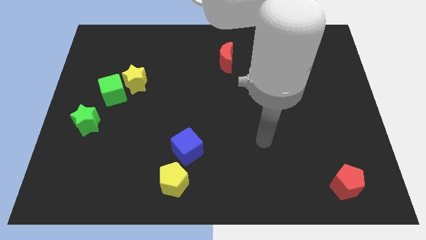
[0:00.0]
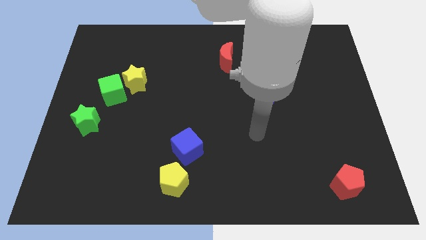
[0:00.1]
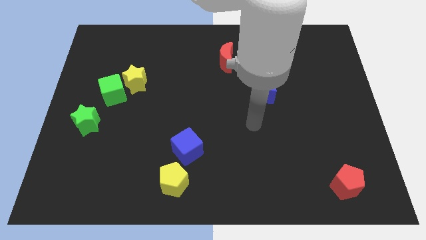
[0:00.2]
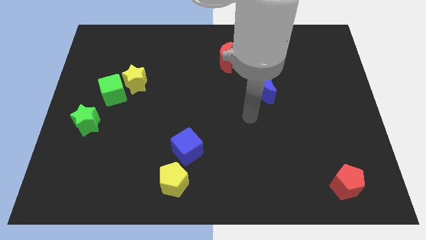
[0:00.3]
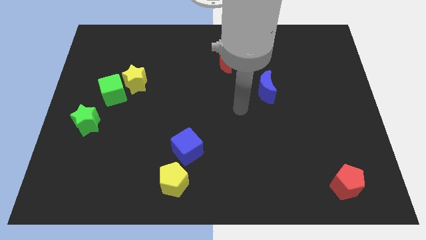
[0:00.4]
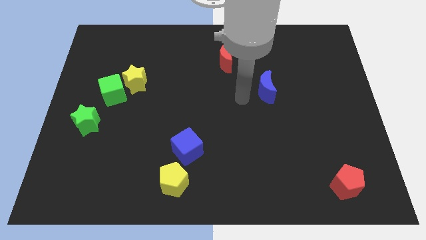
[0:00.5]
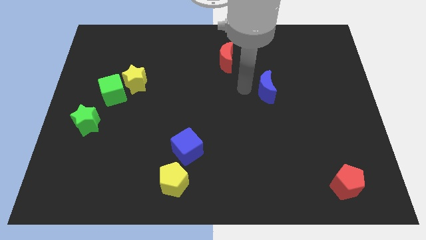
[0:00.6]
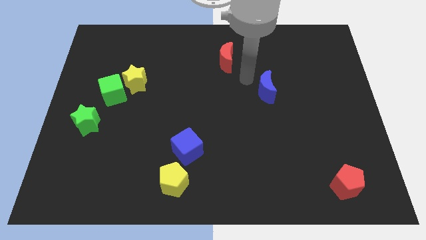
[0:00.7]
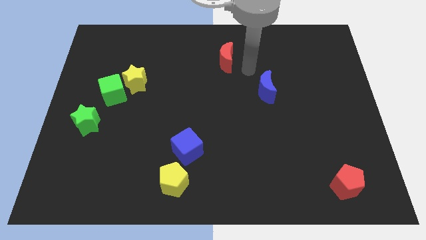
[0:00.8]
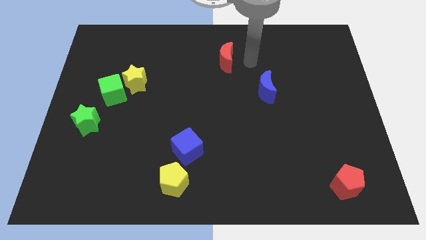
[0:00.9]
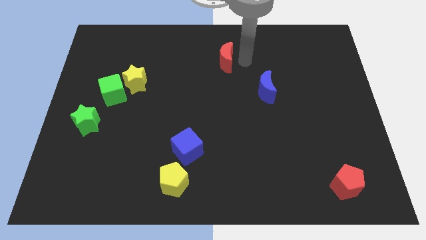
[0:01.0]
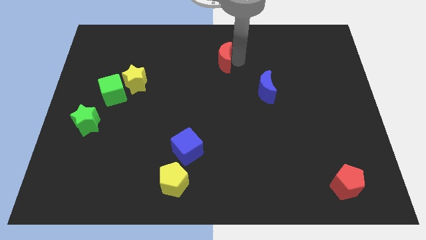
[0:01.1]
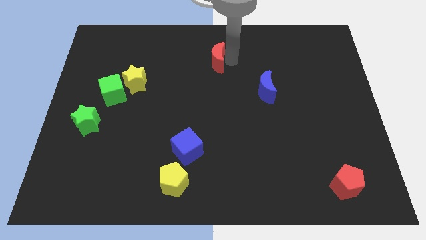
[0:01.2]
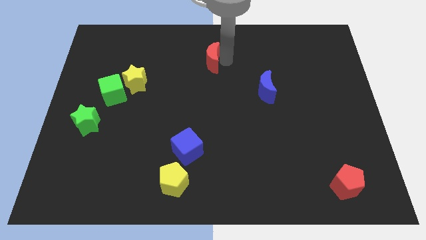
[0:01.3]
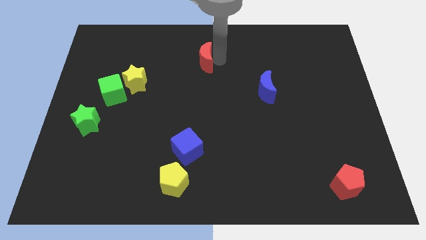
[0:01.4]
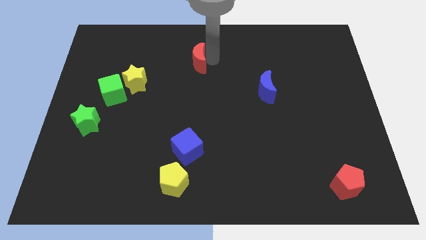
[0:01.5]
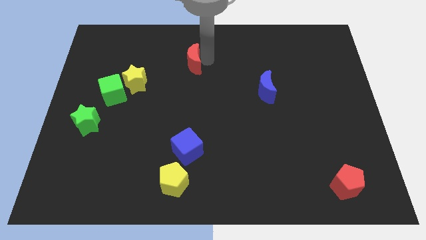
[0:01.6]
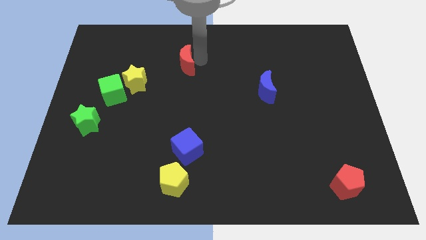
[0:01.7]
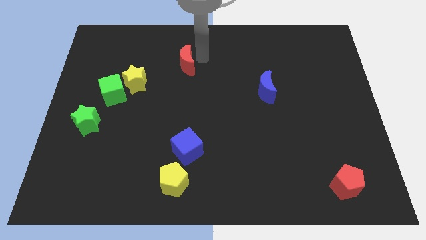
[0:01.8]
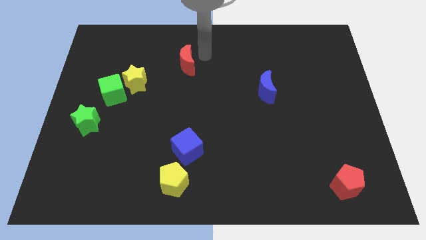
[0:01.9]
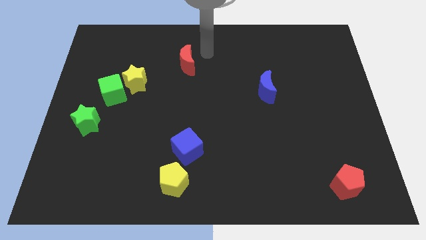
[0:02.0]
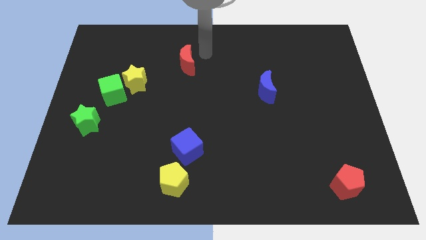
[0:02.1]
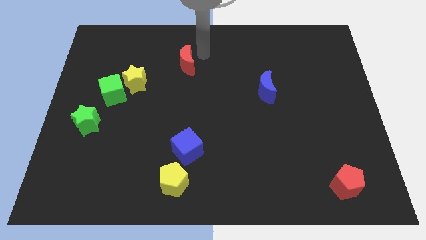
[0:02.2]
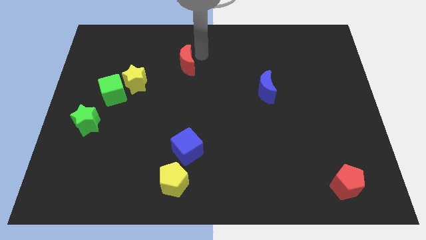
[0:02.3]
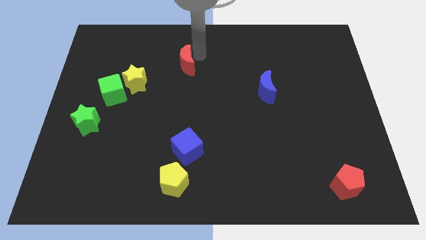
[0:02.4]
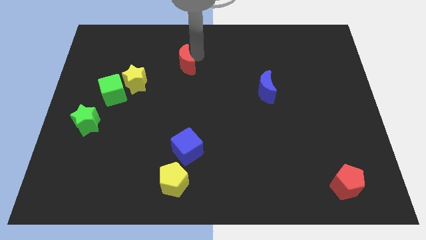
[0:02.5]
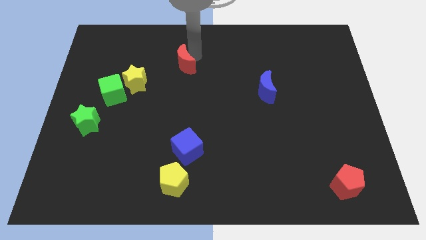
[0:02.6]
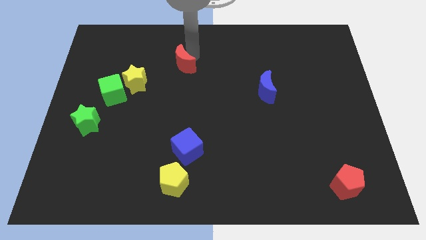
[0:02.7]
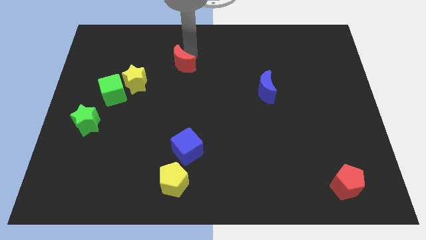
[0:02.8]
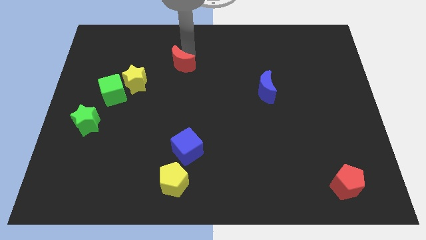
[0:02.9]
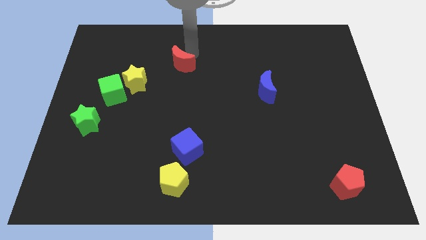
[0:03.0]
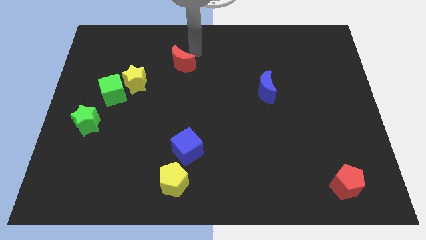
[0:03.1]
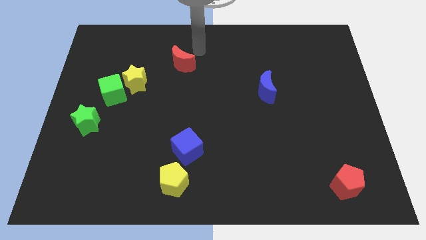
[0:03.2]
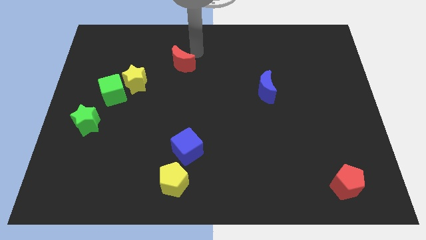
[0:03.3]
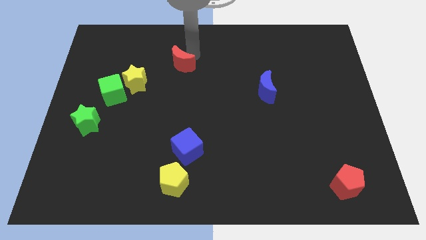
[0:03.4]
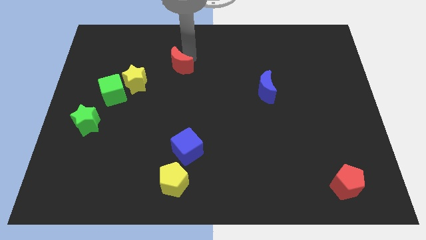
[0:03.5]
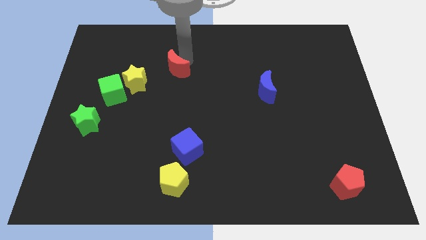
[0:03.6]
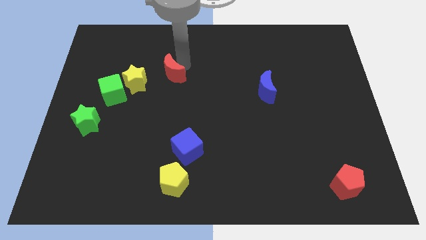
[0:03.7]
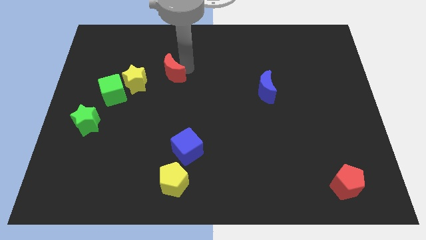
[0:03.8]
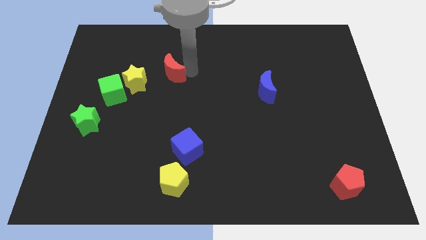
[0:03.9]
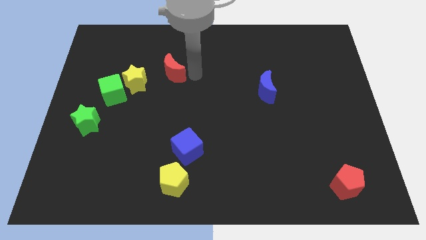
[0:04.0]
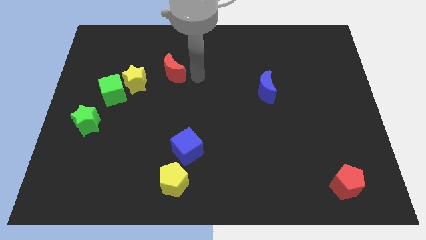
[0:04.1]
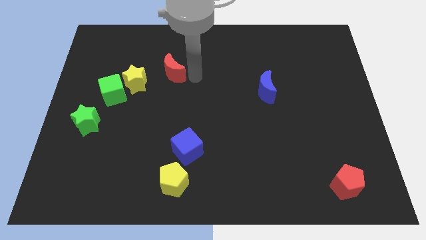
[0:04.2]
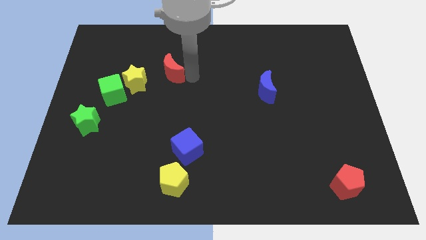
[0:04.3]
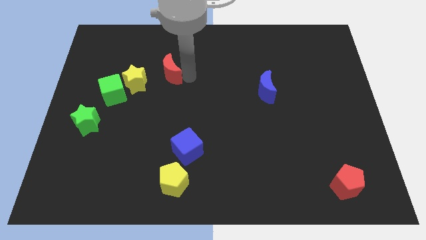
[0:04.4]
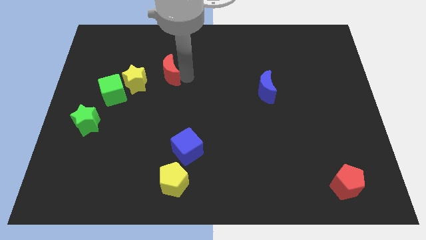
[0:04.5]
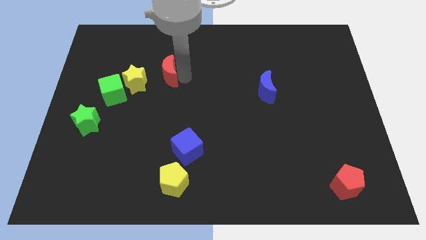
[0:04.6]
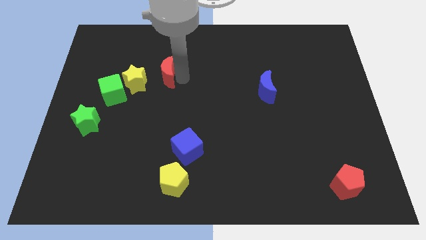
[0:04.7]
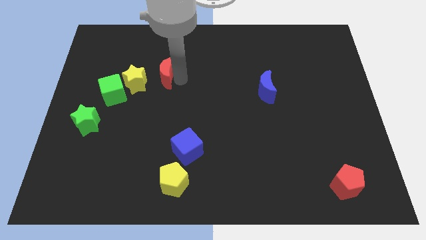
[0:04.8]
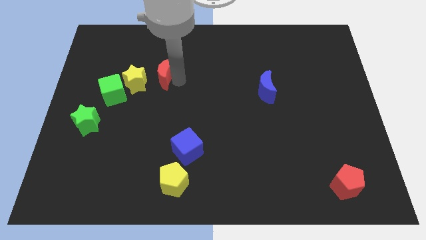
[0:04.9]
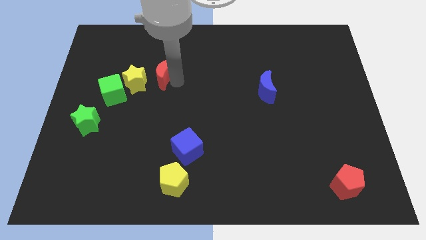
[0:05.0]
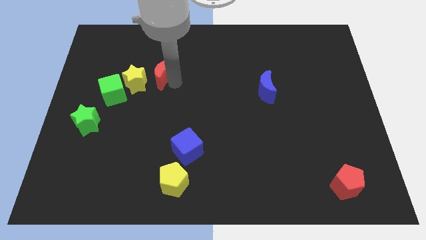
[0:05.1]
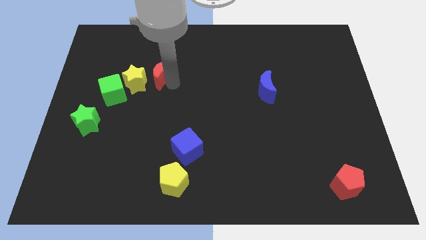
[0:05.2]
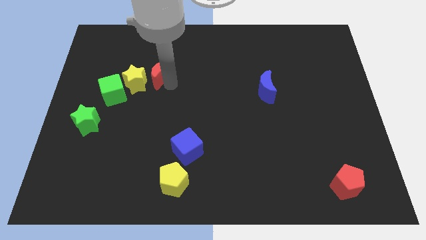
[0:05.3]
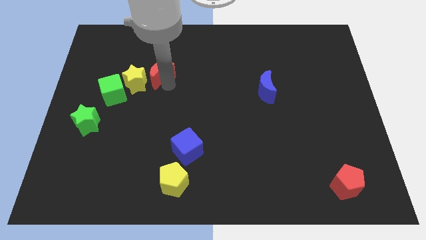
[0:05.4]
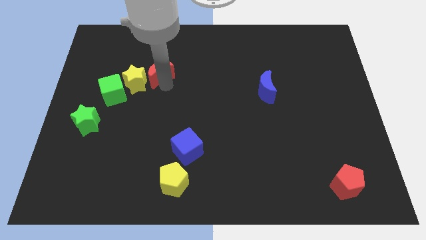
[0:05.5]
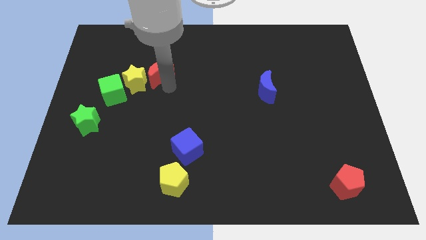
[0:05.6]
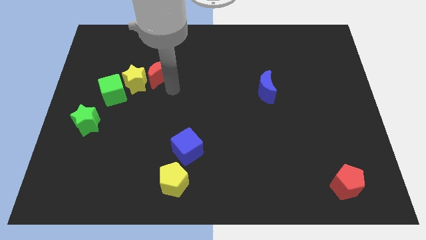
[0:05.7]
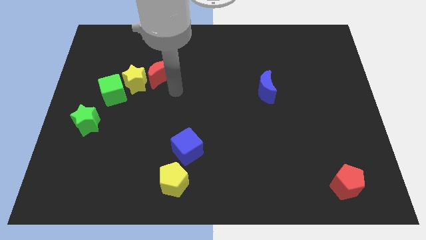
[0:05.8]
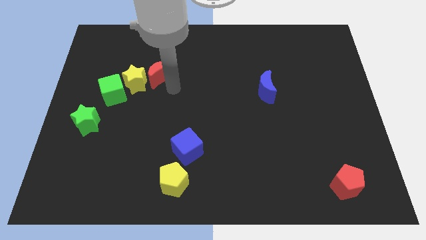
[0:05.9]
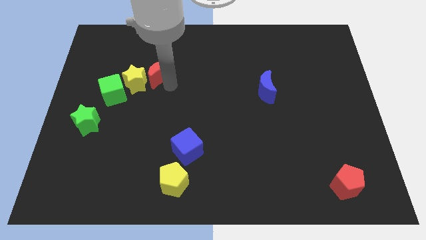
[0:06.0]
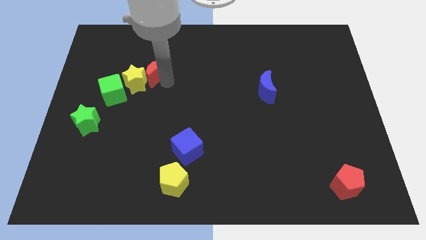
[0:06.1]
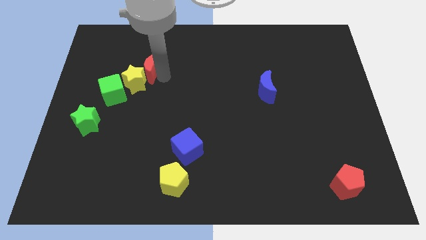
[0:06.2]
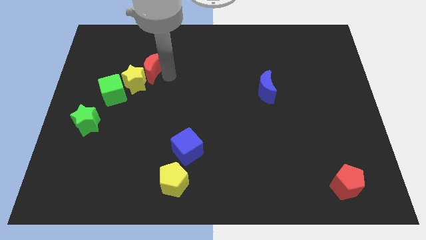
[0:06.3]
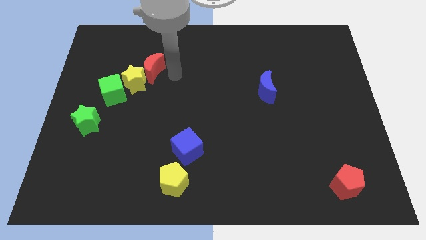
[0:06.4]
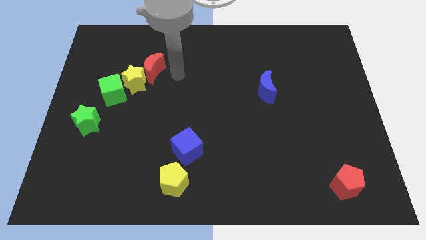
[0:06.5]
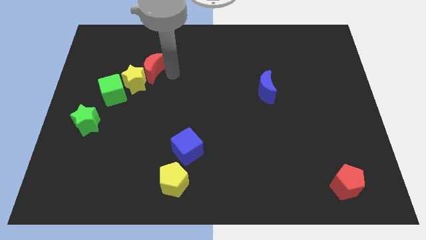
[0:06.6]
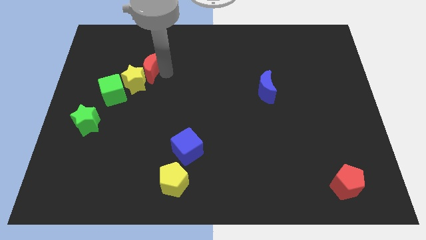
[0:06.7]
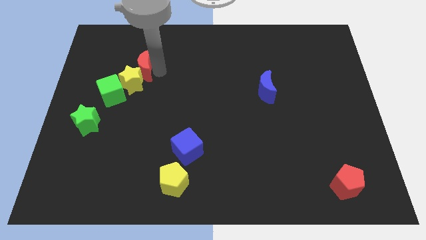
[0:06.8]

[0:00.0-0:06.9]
slide the red moon left

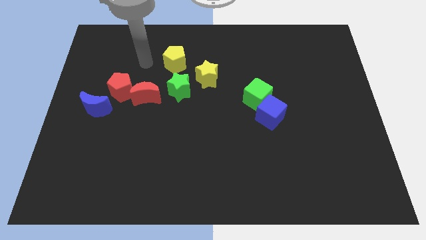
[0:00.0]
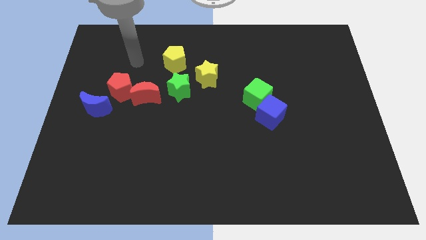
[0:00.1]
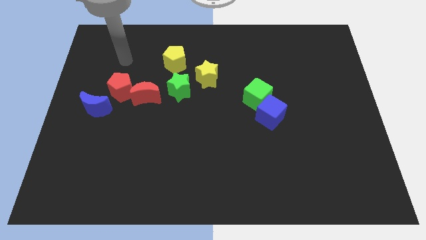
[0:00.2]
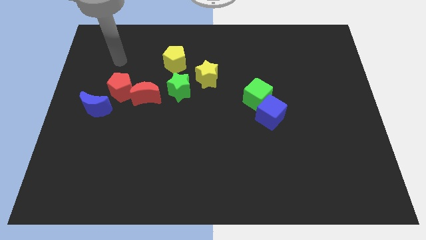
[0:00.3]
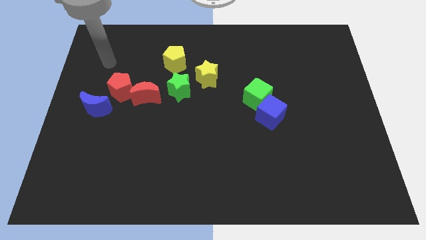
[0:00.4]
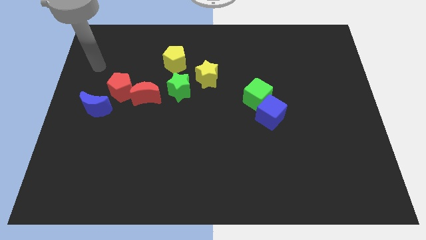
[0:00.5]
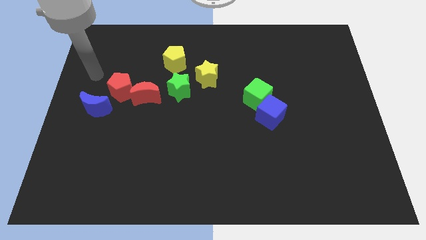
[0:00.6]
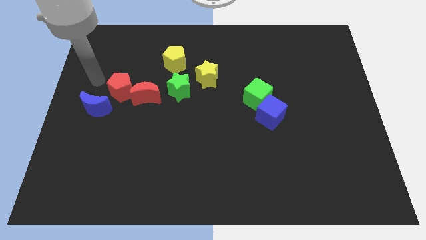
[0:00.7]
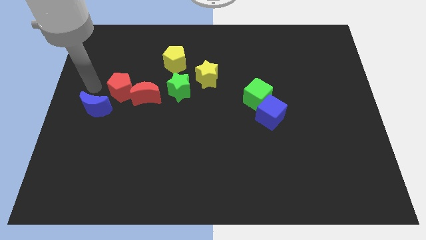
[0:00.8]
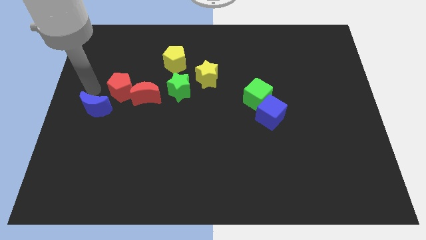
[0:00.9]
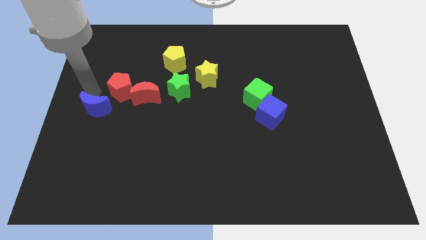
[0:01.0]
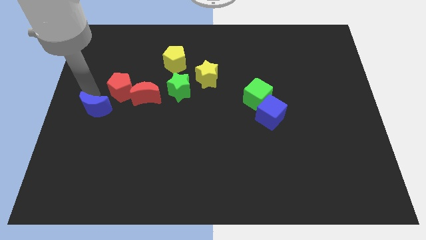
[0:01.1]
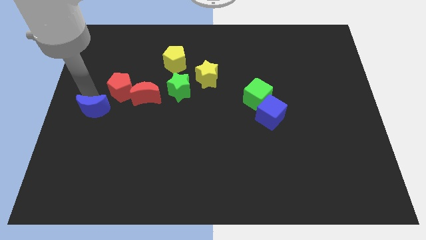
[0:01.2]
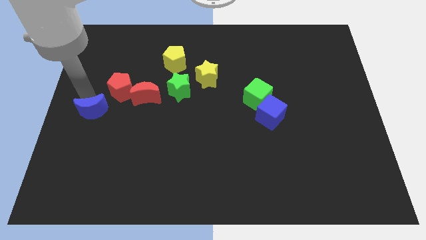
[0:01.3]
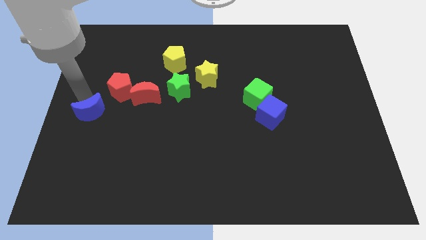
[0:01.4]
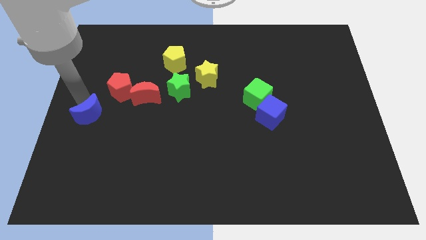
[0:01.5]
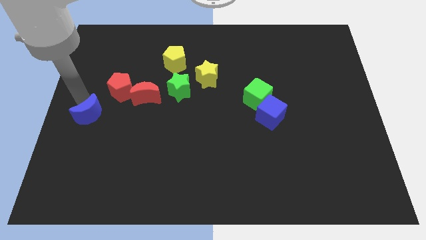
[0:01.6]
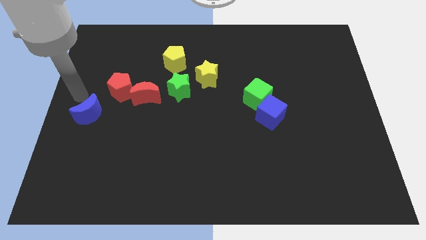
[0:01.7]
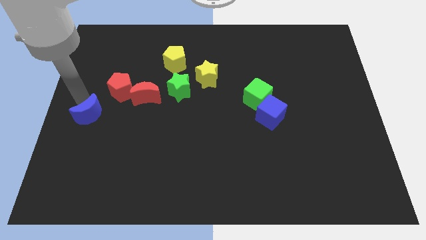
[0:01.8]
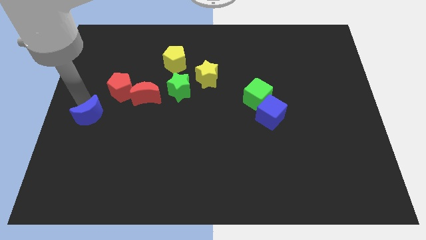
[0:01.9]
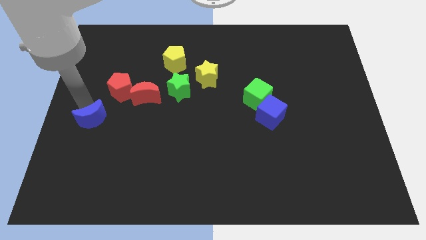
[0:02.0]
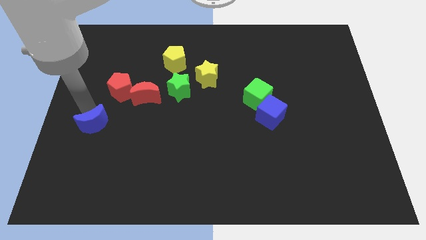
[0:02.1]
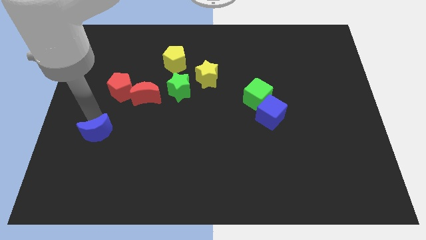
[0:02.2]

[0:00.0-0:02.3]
slightly move the blue moon down
